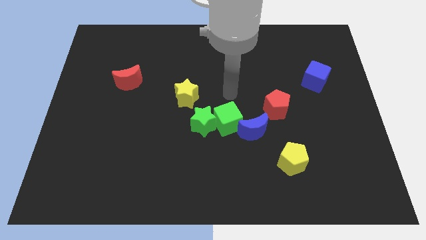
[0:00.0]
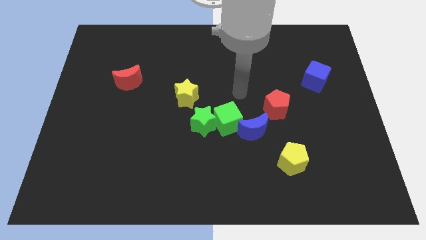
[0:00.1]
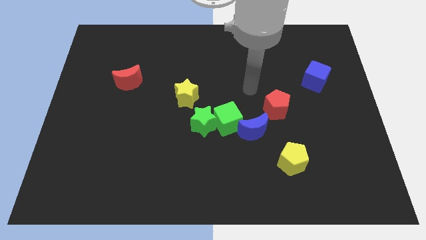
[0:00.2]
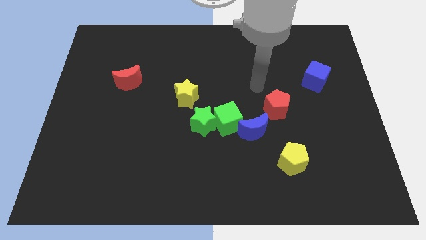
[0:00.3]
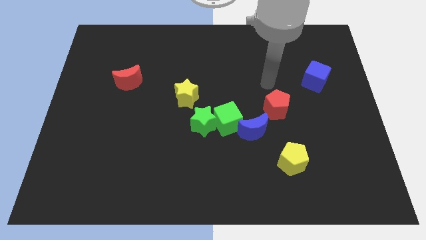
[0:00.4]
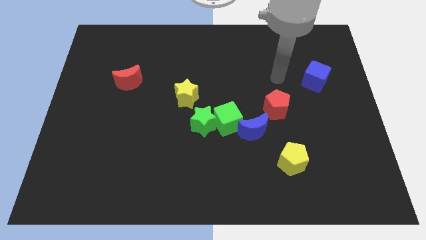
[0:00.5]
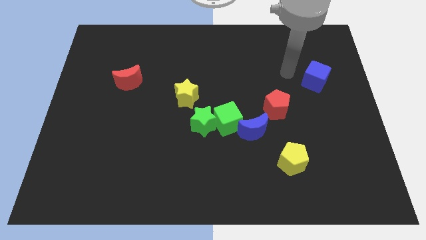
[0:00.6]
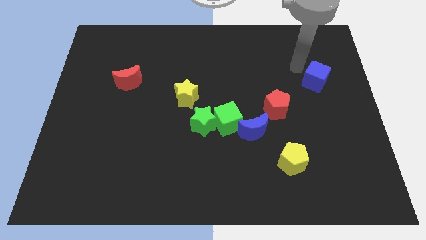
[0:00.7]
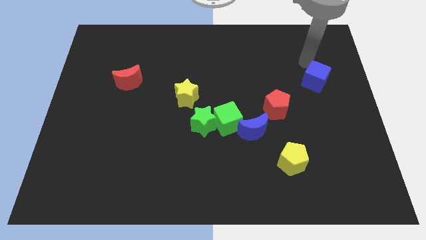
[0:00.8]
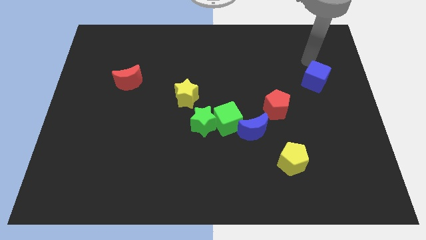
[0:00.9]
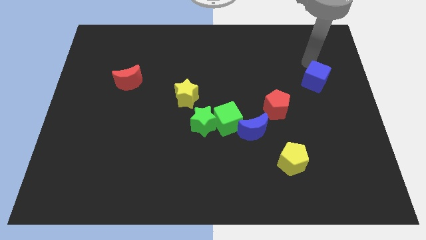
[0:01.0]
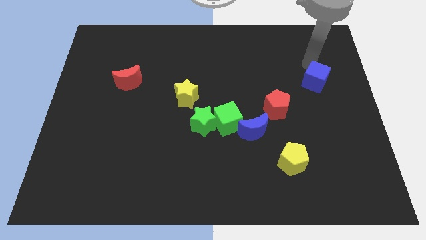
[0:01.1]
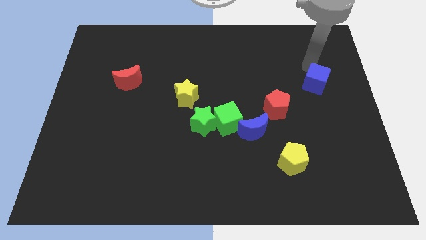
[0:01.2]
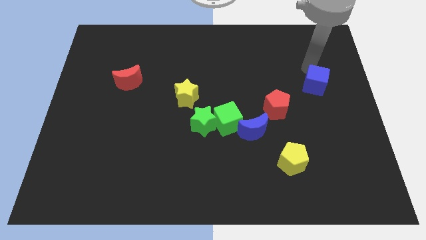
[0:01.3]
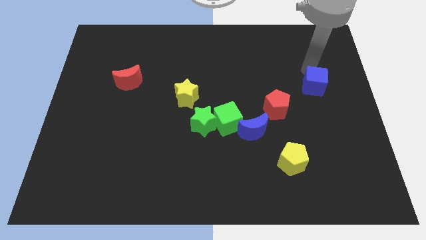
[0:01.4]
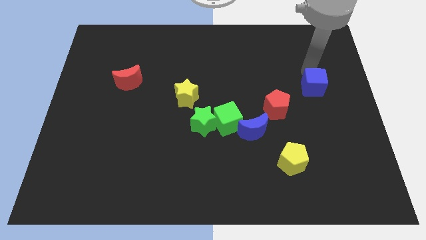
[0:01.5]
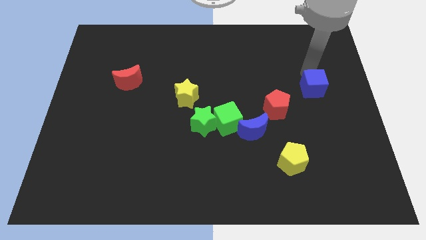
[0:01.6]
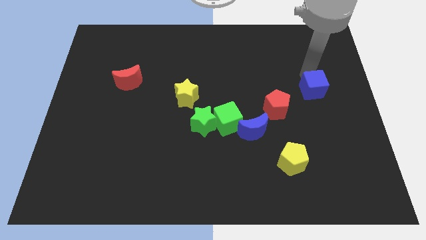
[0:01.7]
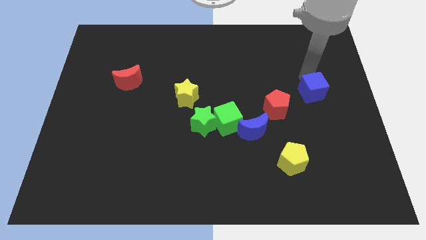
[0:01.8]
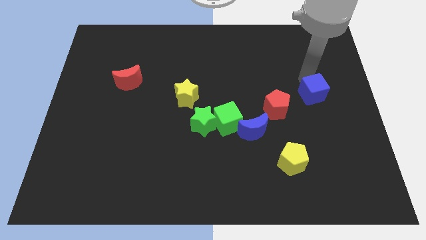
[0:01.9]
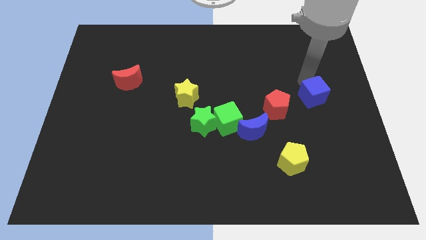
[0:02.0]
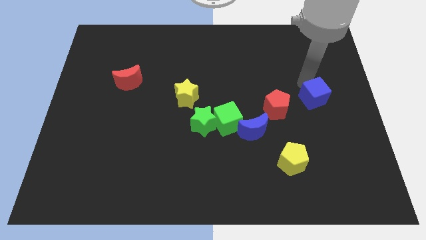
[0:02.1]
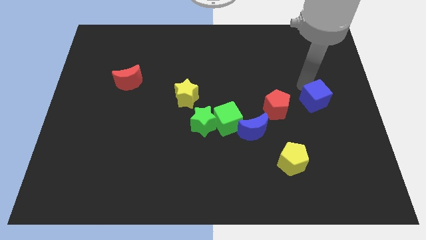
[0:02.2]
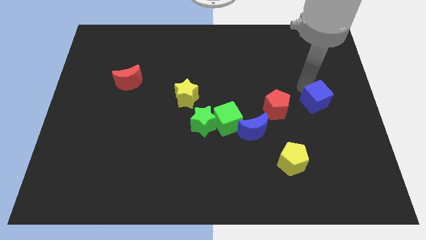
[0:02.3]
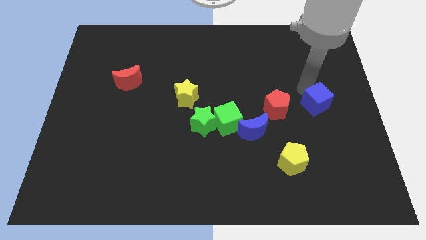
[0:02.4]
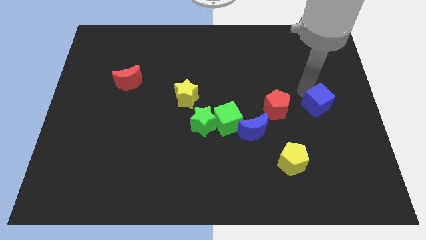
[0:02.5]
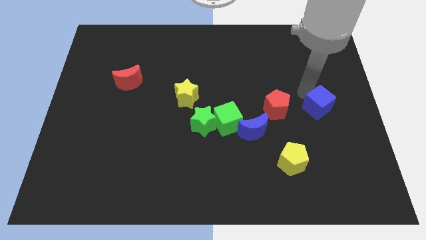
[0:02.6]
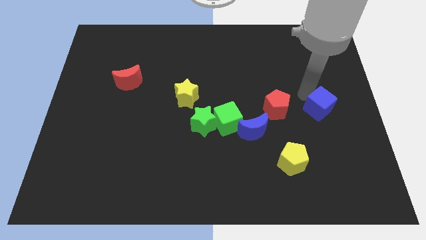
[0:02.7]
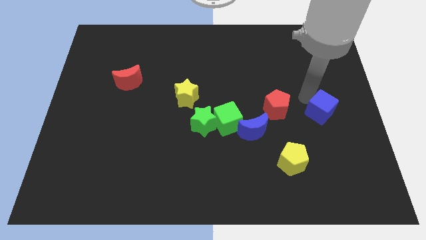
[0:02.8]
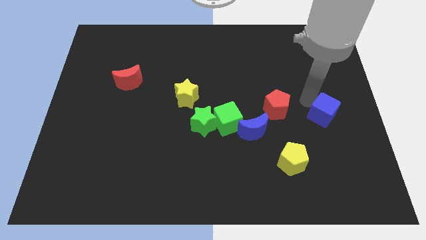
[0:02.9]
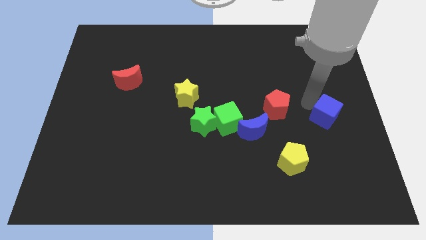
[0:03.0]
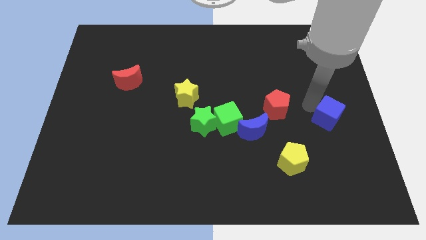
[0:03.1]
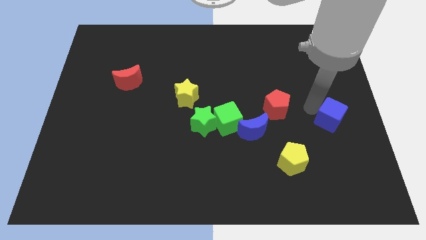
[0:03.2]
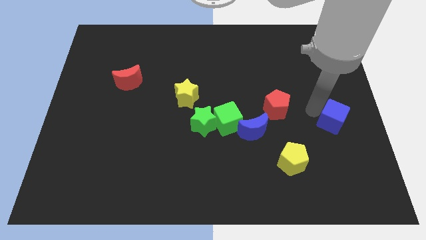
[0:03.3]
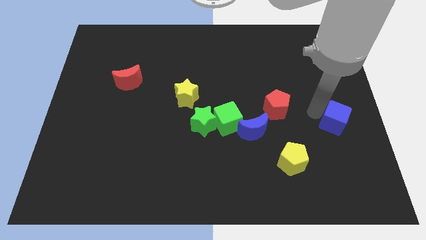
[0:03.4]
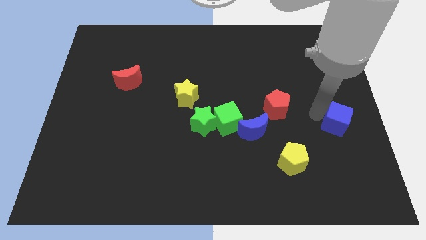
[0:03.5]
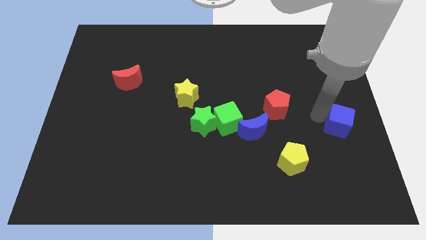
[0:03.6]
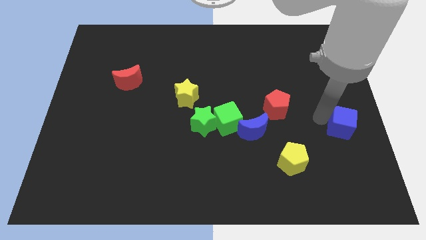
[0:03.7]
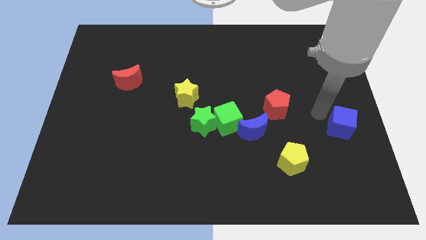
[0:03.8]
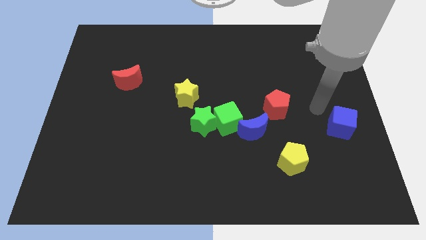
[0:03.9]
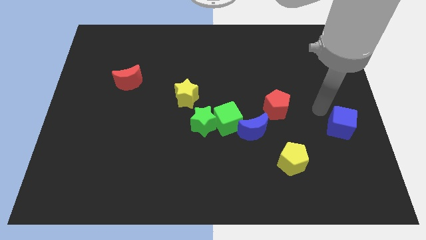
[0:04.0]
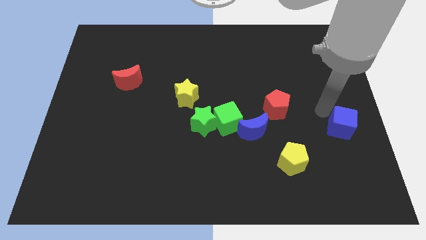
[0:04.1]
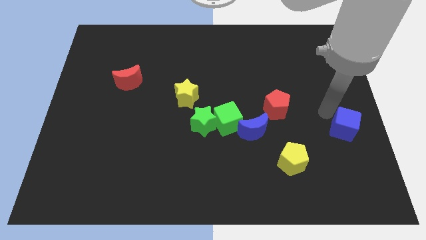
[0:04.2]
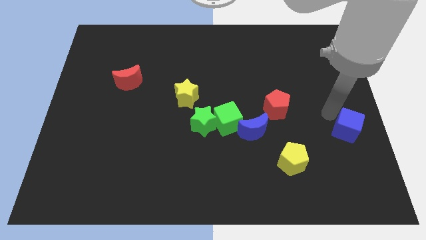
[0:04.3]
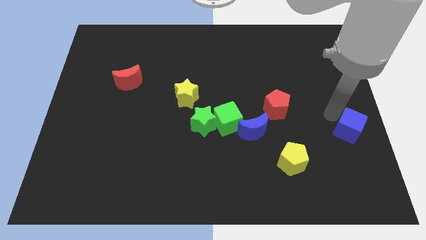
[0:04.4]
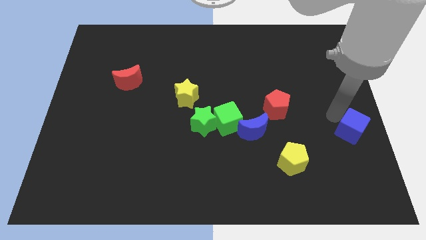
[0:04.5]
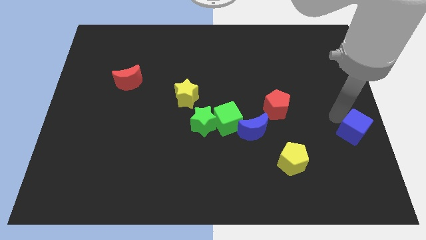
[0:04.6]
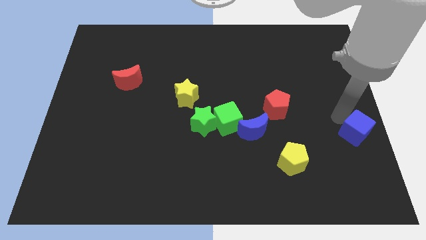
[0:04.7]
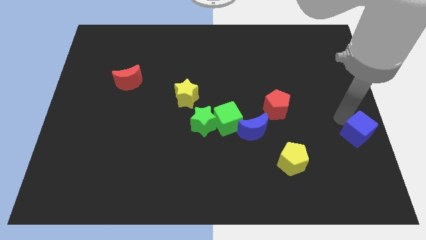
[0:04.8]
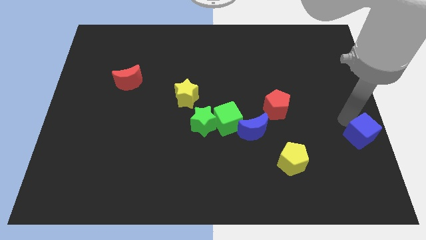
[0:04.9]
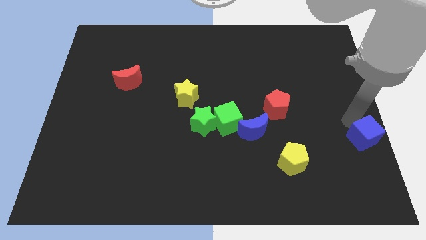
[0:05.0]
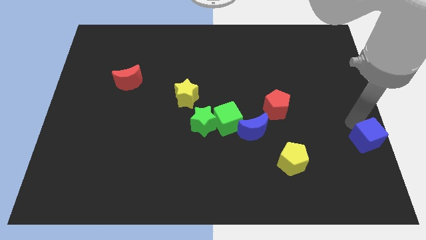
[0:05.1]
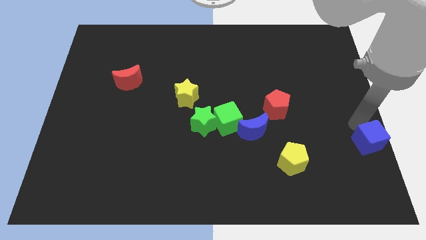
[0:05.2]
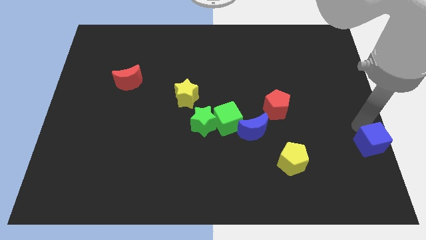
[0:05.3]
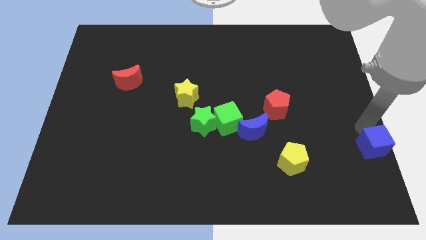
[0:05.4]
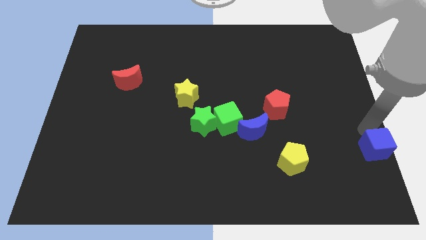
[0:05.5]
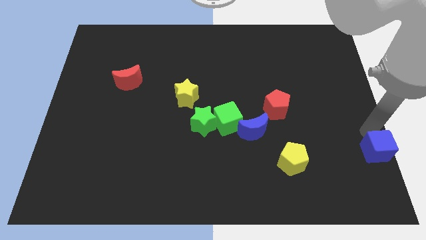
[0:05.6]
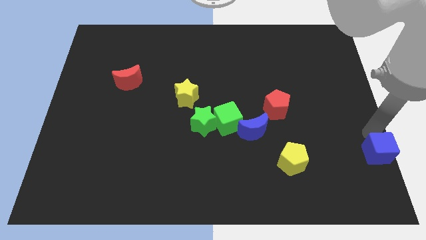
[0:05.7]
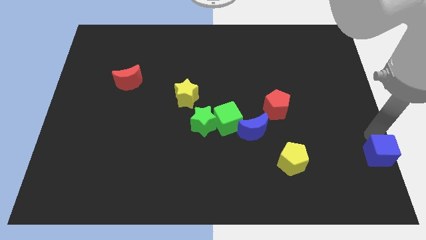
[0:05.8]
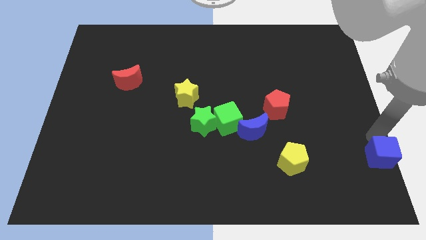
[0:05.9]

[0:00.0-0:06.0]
move the blue cube to the bottom right corner

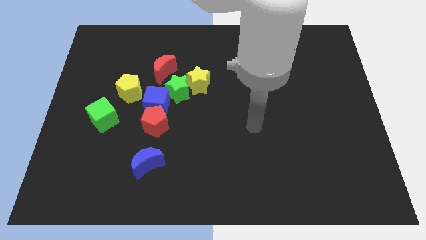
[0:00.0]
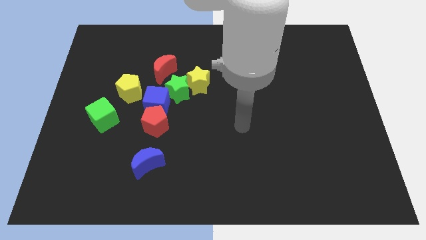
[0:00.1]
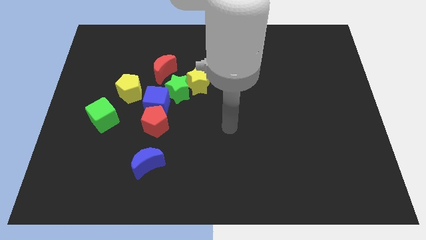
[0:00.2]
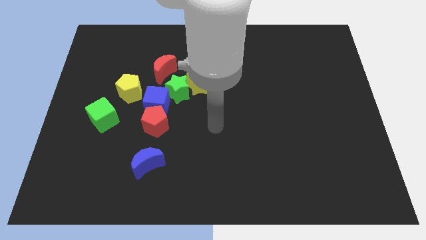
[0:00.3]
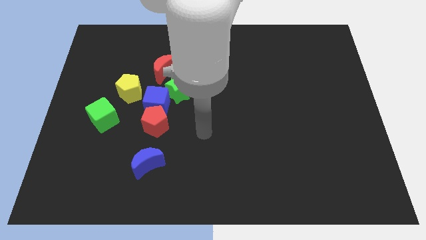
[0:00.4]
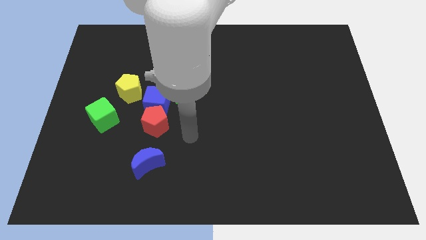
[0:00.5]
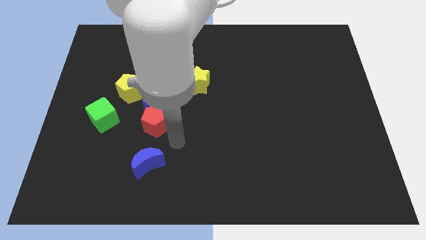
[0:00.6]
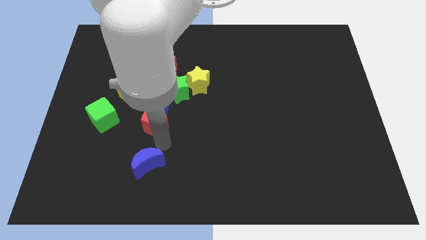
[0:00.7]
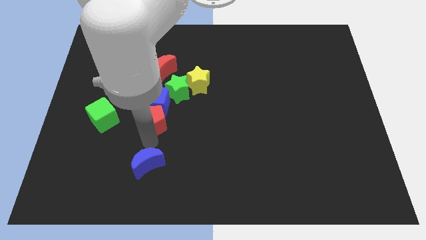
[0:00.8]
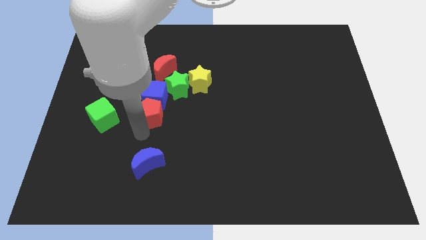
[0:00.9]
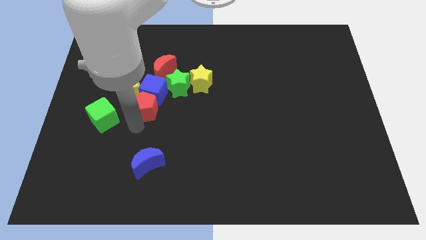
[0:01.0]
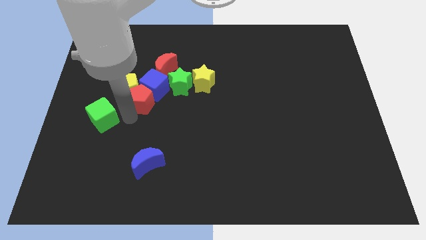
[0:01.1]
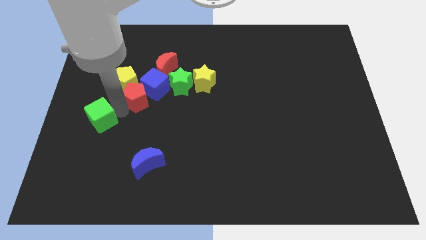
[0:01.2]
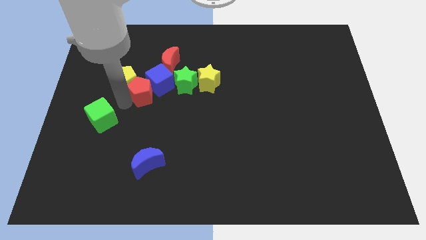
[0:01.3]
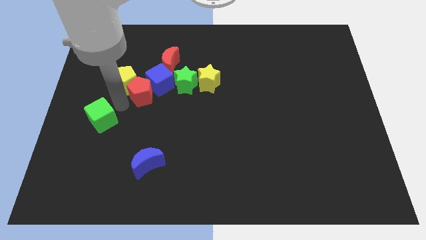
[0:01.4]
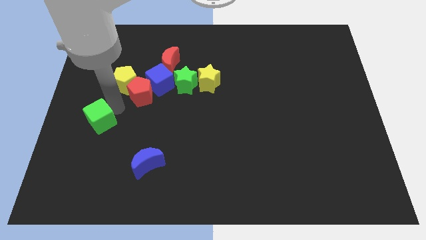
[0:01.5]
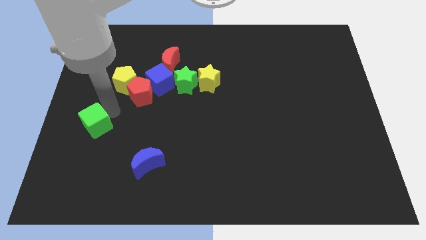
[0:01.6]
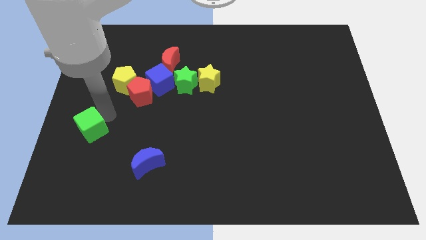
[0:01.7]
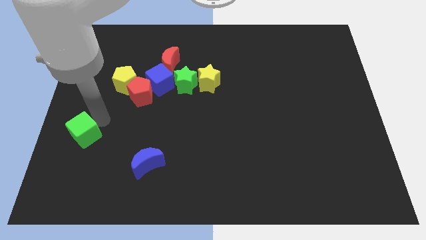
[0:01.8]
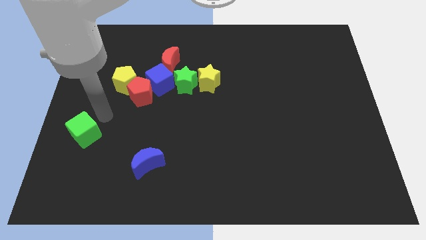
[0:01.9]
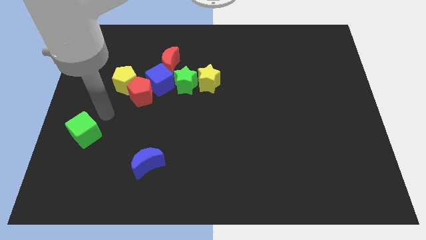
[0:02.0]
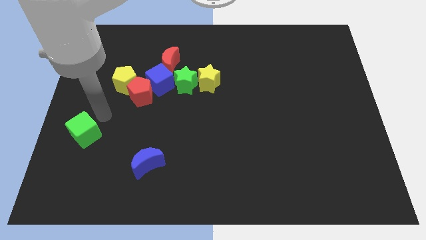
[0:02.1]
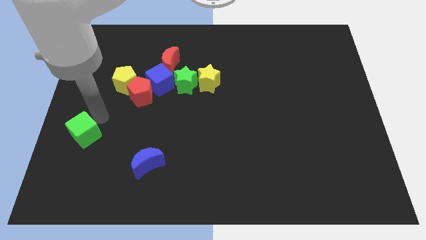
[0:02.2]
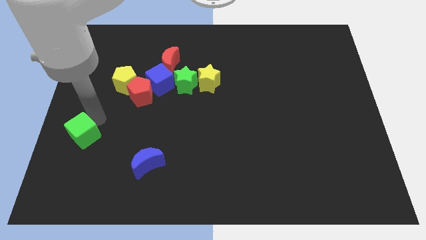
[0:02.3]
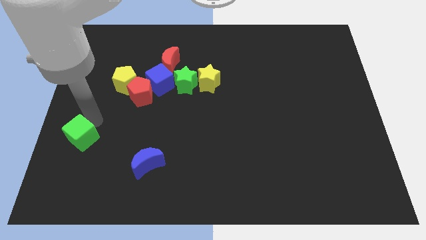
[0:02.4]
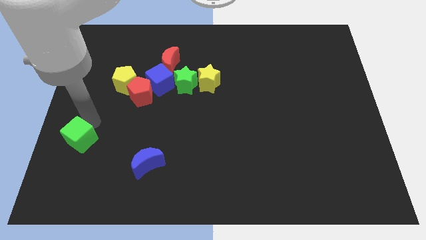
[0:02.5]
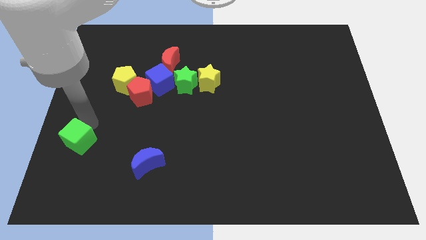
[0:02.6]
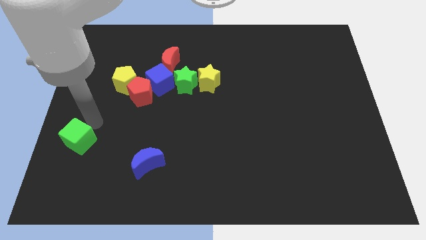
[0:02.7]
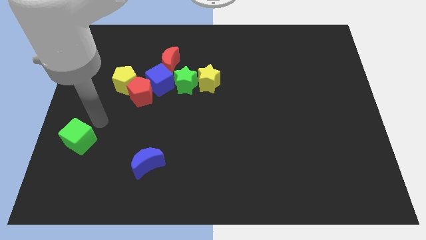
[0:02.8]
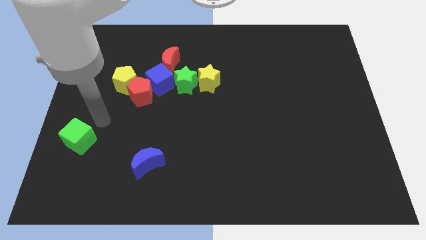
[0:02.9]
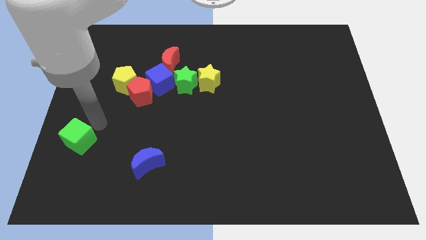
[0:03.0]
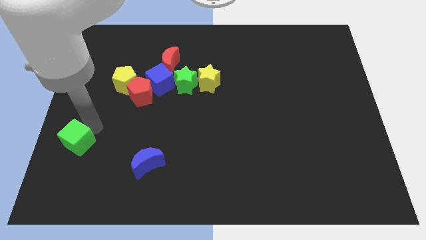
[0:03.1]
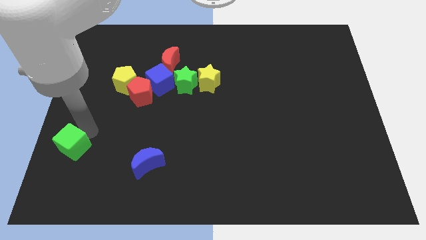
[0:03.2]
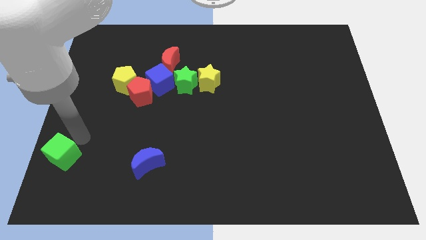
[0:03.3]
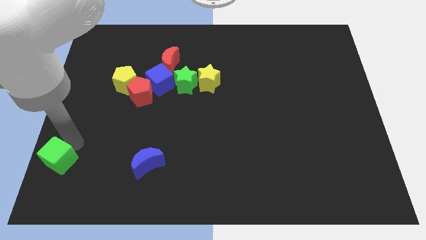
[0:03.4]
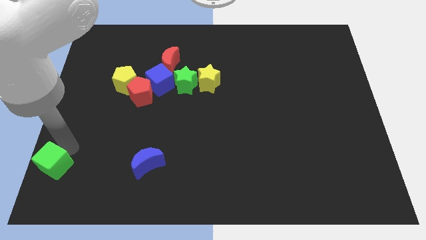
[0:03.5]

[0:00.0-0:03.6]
put the green cube to the lower left corner
